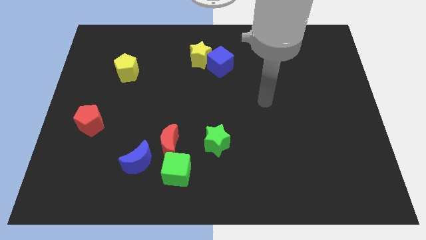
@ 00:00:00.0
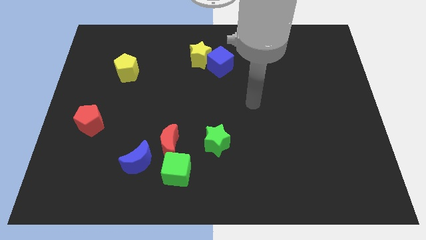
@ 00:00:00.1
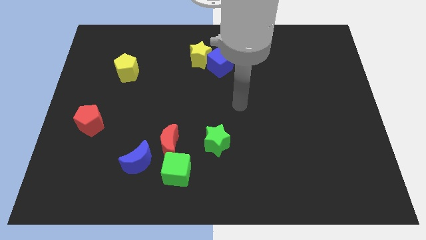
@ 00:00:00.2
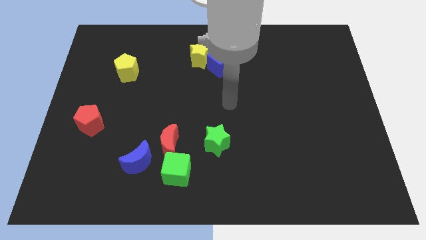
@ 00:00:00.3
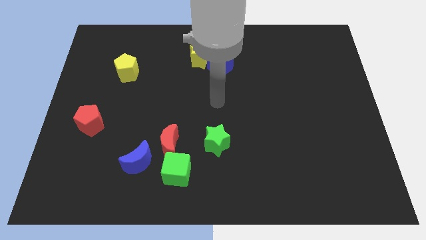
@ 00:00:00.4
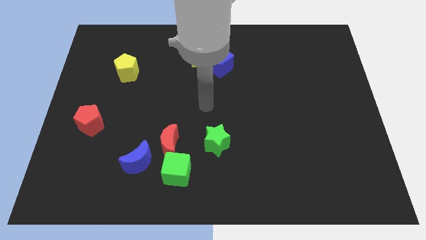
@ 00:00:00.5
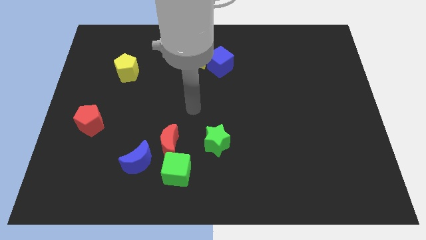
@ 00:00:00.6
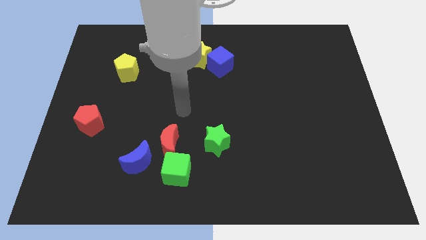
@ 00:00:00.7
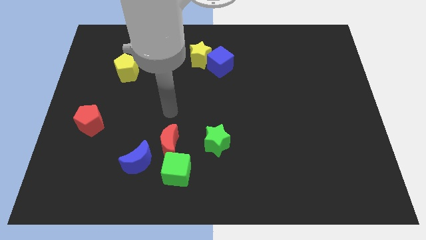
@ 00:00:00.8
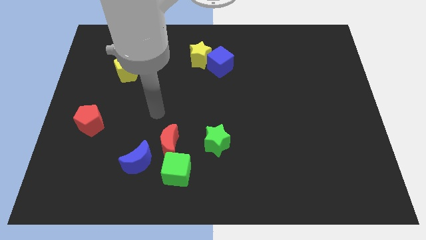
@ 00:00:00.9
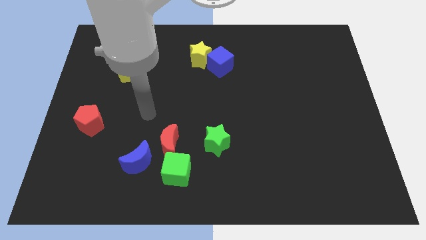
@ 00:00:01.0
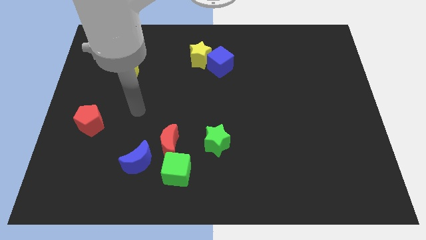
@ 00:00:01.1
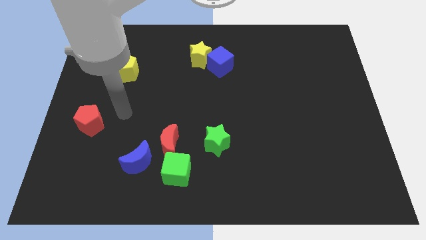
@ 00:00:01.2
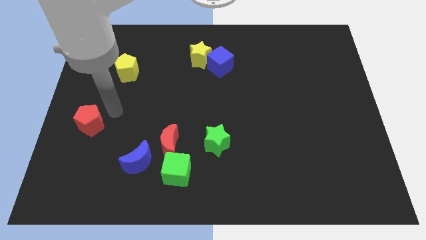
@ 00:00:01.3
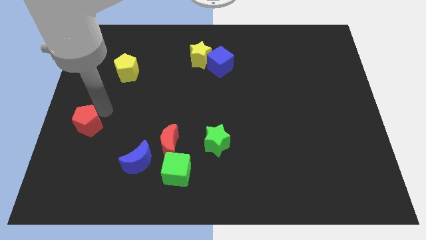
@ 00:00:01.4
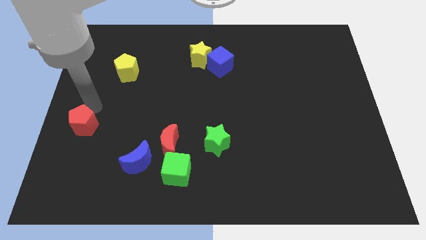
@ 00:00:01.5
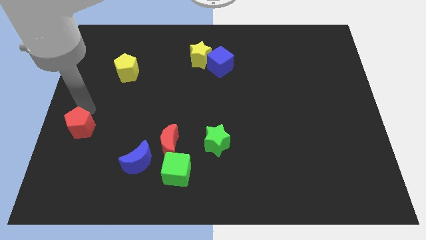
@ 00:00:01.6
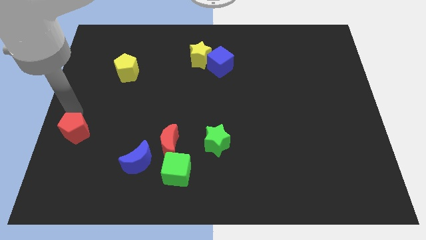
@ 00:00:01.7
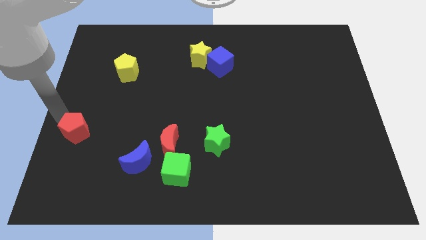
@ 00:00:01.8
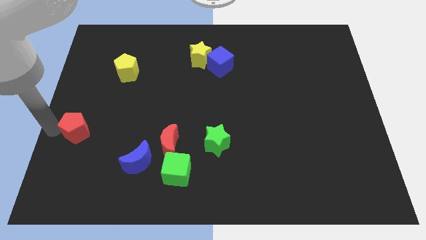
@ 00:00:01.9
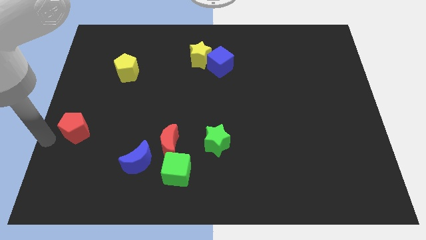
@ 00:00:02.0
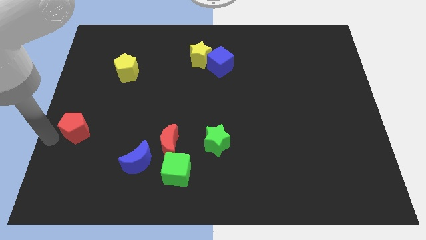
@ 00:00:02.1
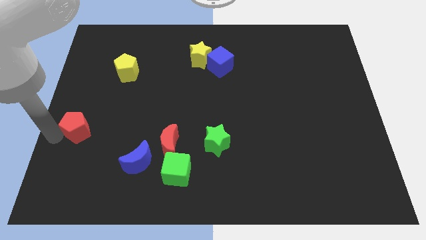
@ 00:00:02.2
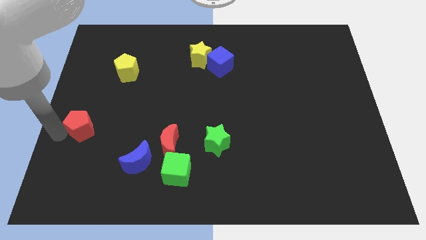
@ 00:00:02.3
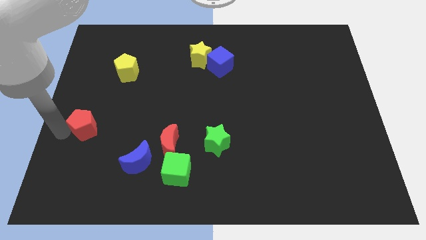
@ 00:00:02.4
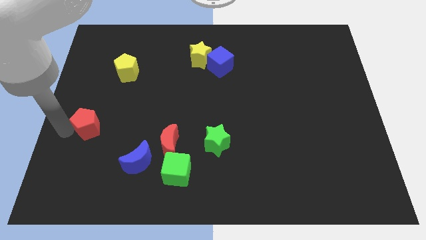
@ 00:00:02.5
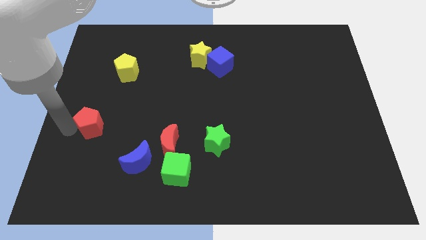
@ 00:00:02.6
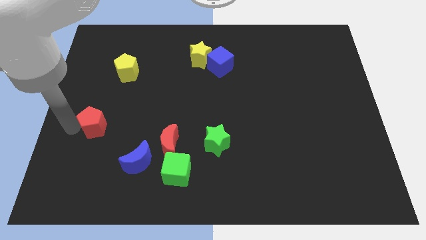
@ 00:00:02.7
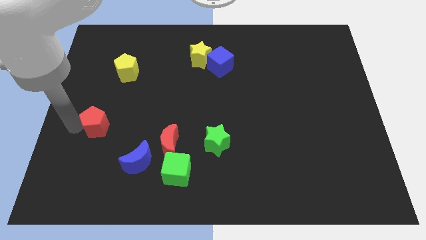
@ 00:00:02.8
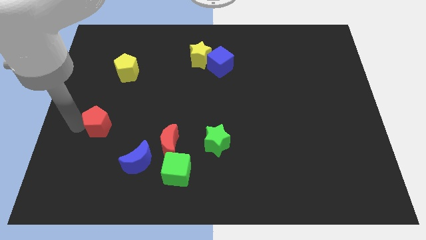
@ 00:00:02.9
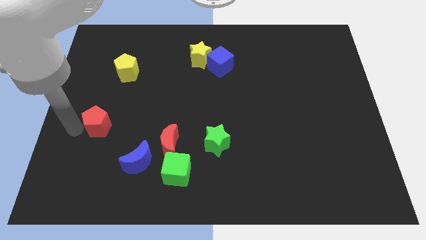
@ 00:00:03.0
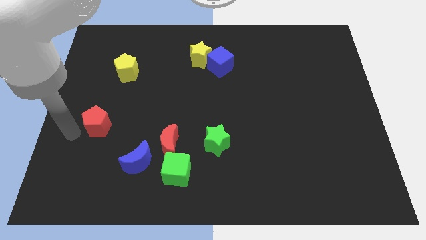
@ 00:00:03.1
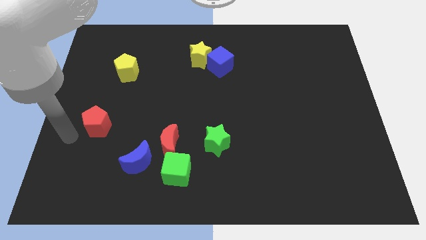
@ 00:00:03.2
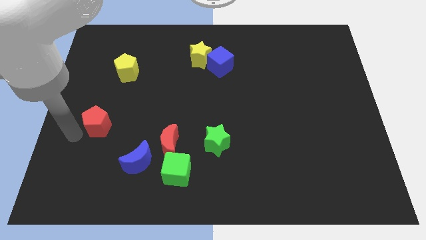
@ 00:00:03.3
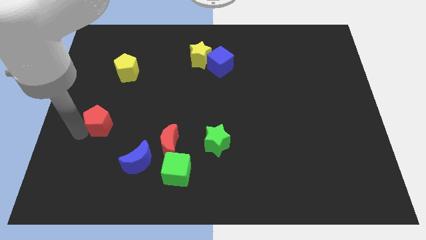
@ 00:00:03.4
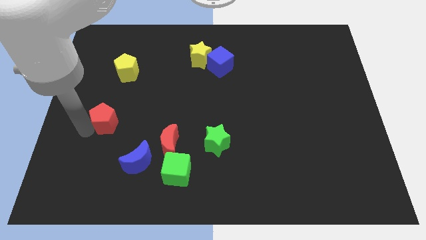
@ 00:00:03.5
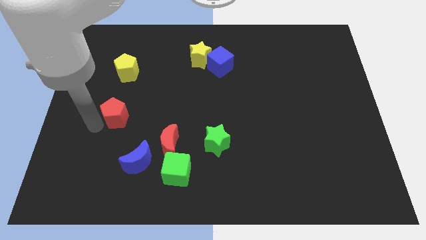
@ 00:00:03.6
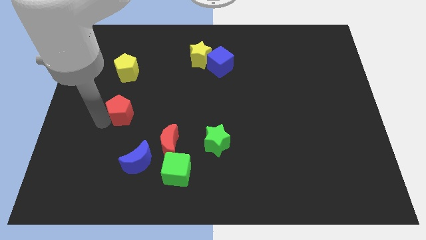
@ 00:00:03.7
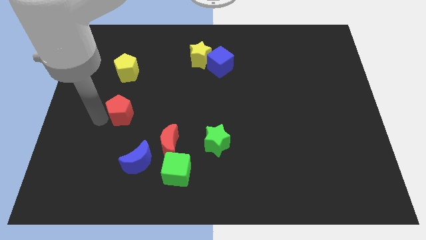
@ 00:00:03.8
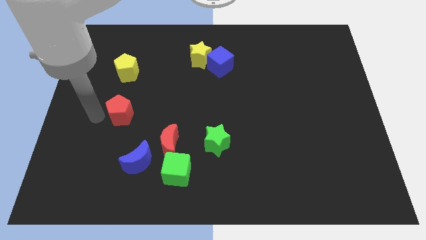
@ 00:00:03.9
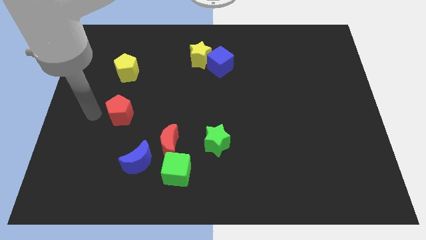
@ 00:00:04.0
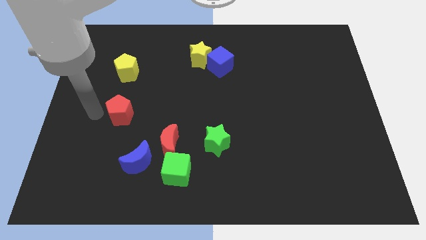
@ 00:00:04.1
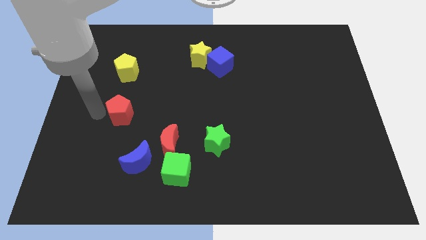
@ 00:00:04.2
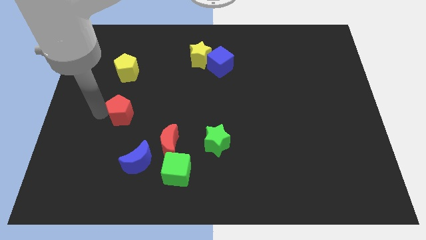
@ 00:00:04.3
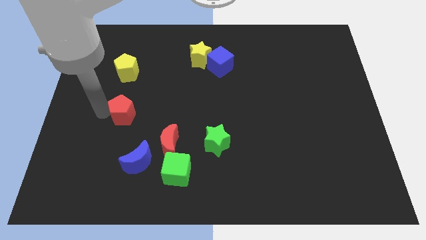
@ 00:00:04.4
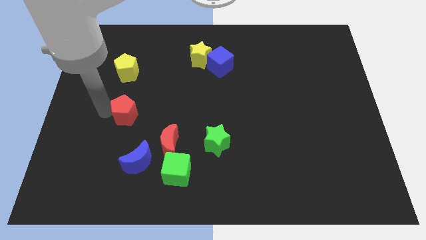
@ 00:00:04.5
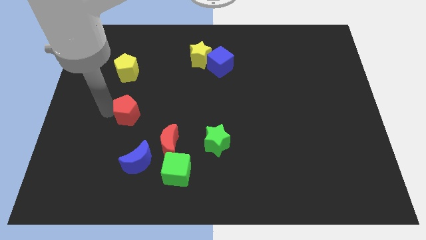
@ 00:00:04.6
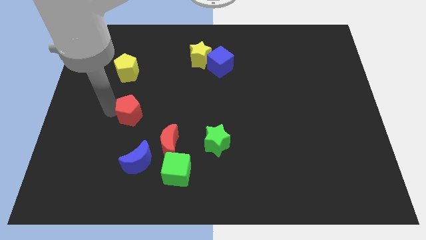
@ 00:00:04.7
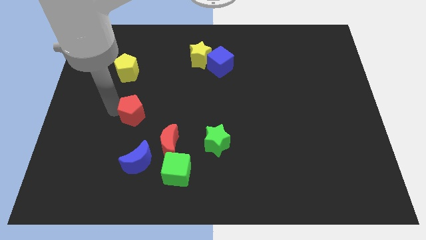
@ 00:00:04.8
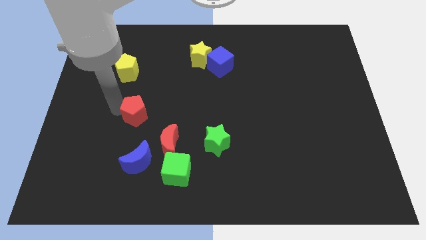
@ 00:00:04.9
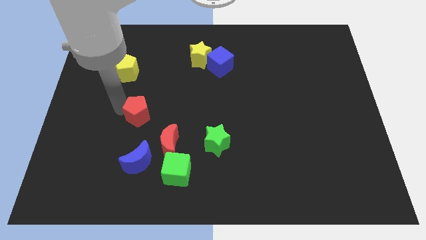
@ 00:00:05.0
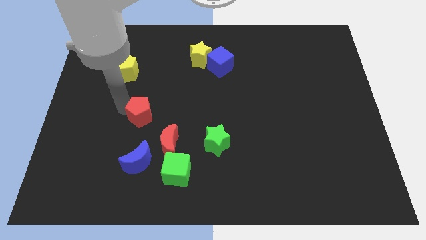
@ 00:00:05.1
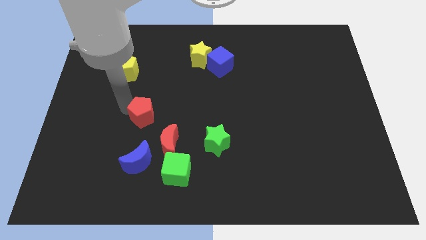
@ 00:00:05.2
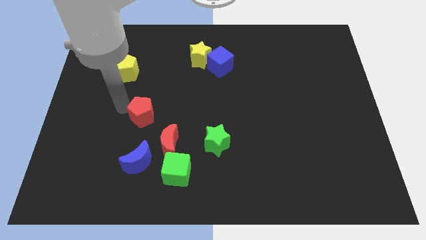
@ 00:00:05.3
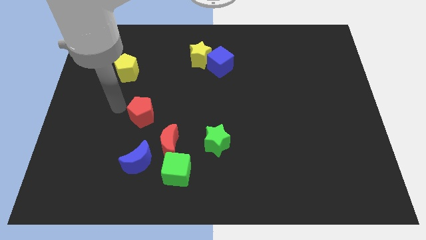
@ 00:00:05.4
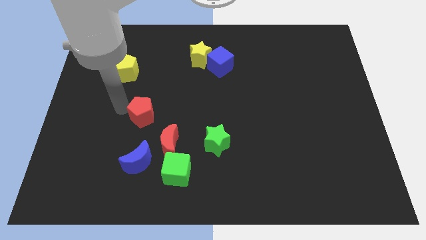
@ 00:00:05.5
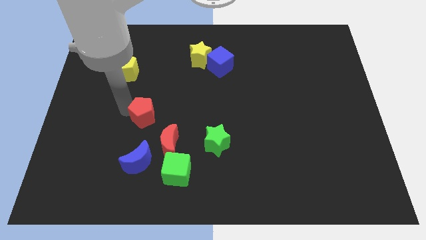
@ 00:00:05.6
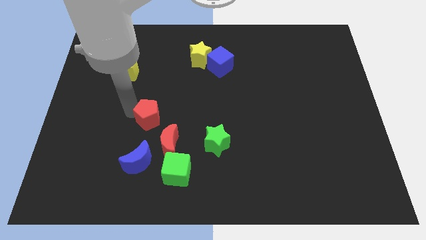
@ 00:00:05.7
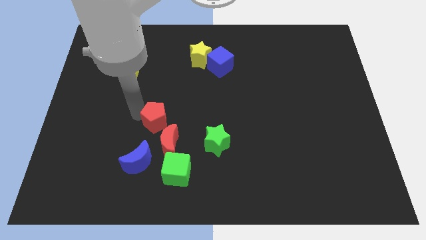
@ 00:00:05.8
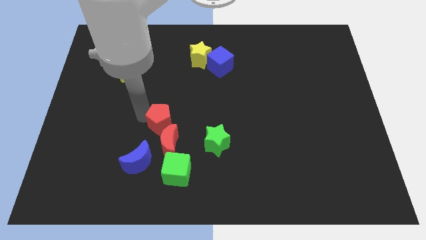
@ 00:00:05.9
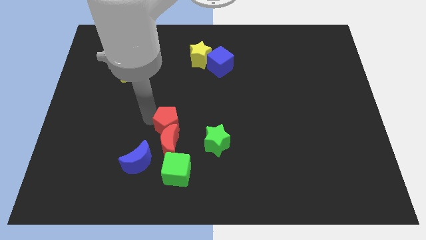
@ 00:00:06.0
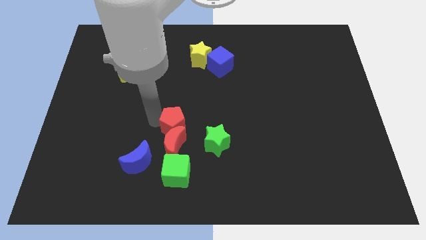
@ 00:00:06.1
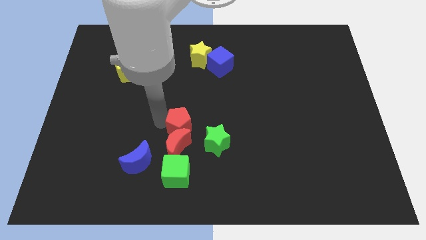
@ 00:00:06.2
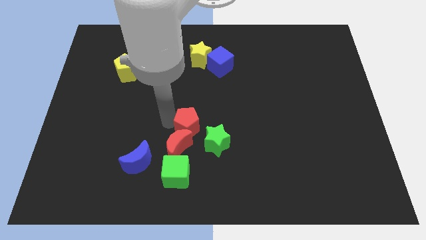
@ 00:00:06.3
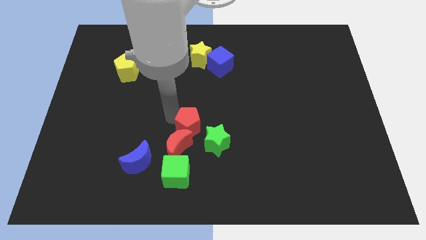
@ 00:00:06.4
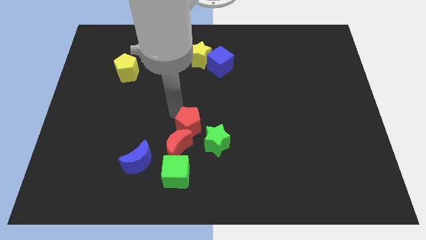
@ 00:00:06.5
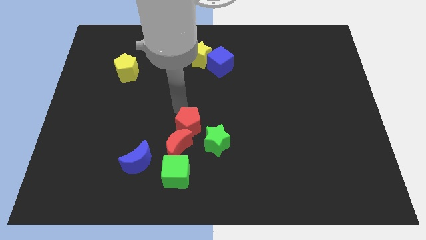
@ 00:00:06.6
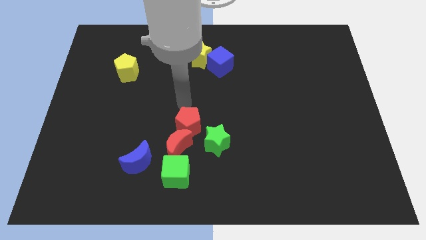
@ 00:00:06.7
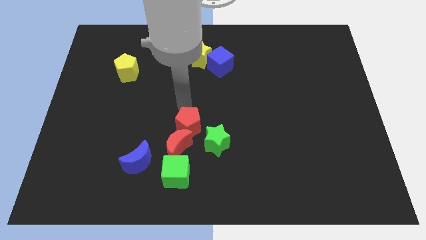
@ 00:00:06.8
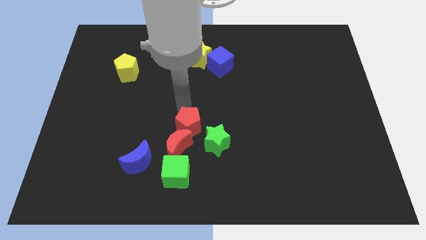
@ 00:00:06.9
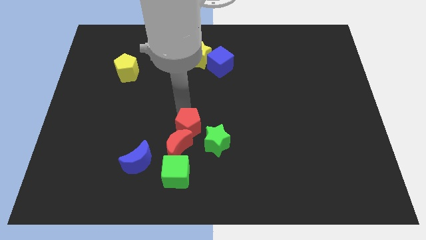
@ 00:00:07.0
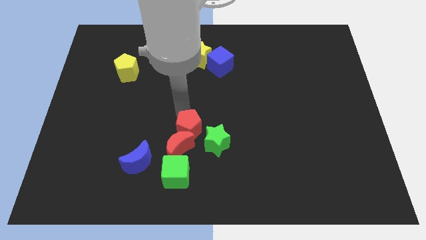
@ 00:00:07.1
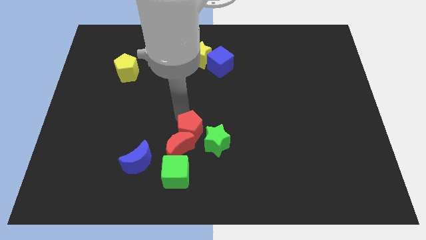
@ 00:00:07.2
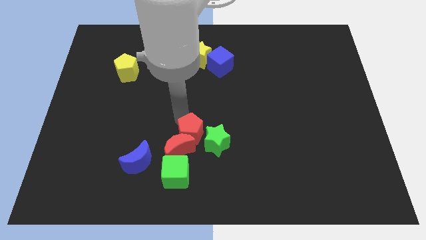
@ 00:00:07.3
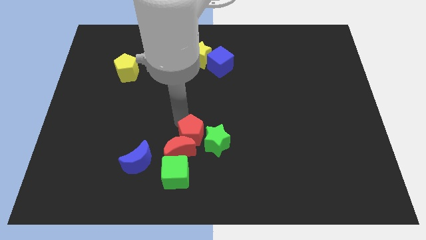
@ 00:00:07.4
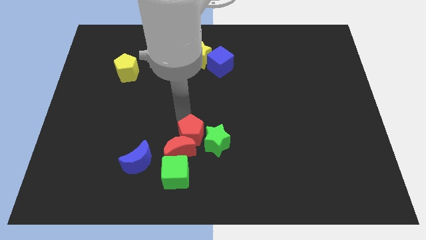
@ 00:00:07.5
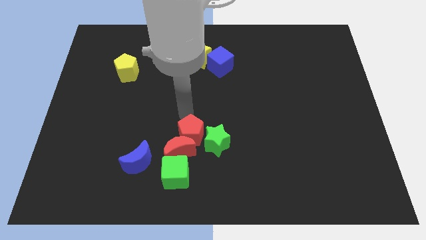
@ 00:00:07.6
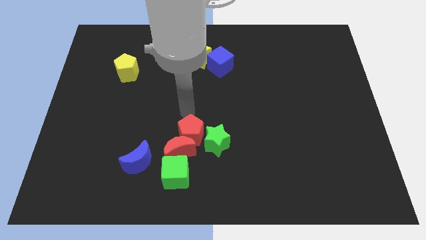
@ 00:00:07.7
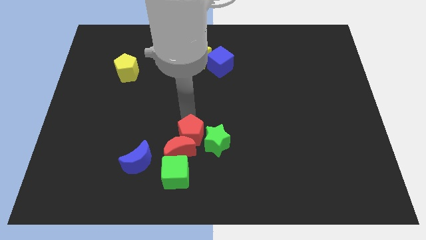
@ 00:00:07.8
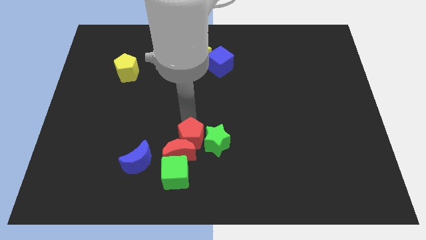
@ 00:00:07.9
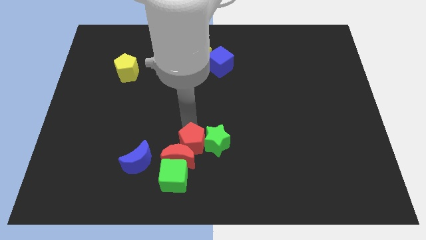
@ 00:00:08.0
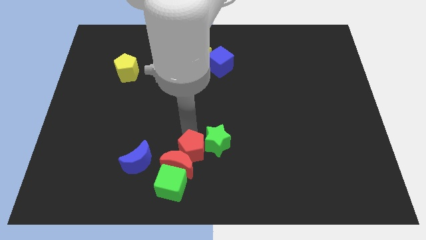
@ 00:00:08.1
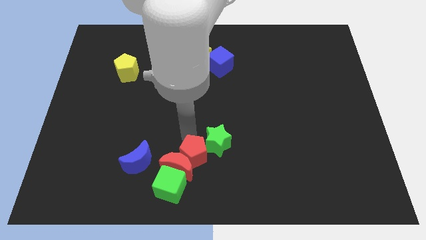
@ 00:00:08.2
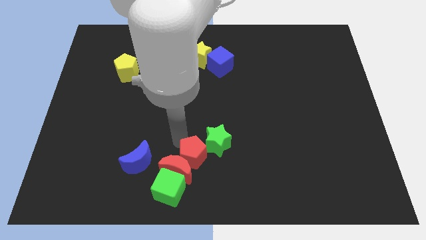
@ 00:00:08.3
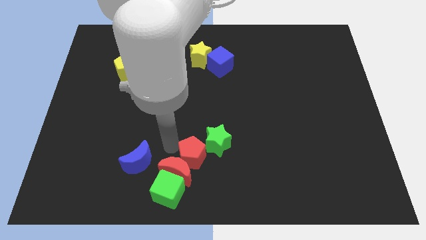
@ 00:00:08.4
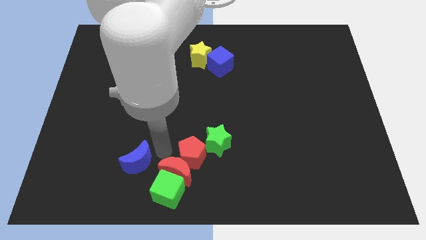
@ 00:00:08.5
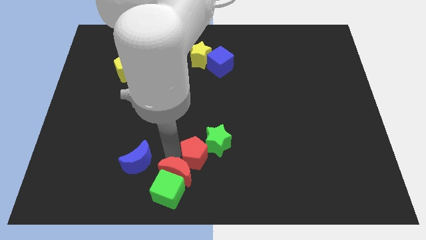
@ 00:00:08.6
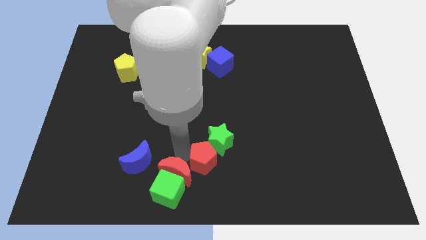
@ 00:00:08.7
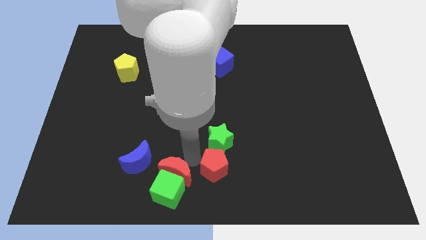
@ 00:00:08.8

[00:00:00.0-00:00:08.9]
slide the red pentagon diagonally down and to the right of the green star
